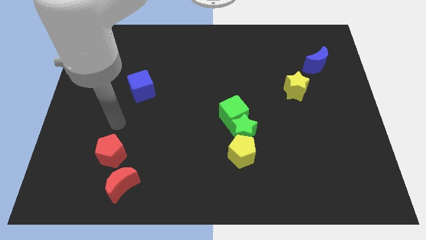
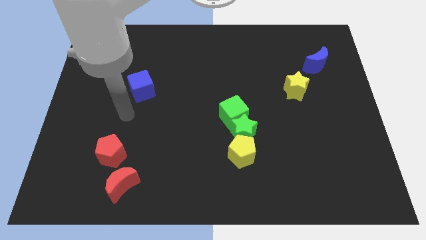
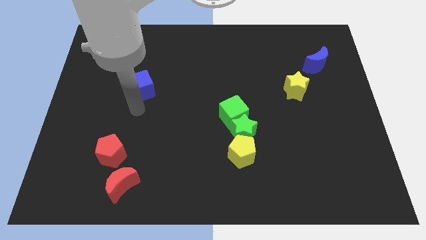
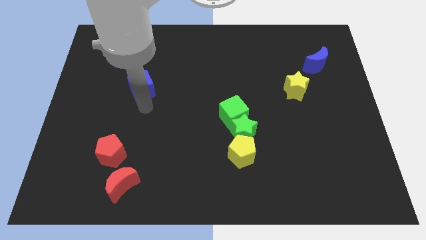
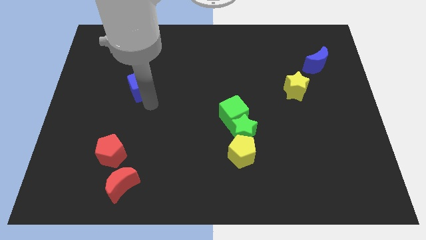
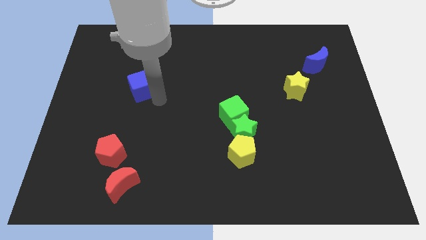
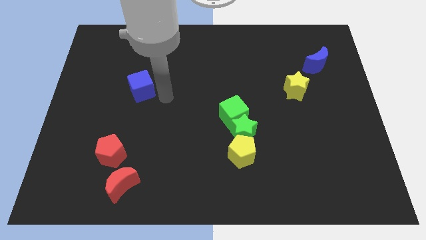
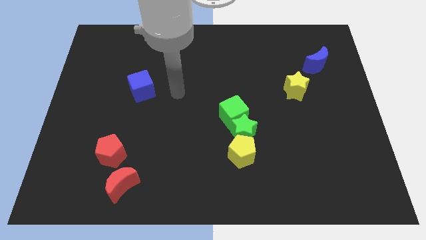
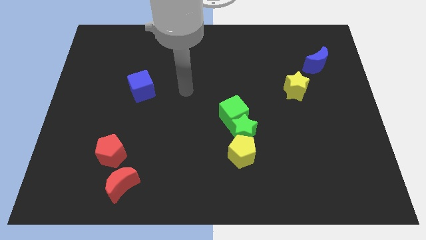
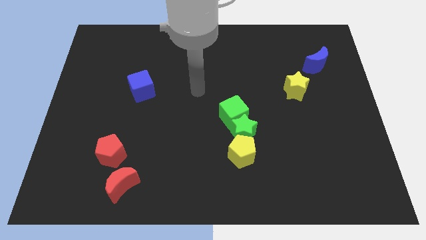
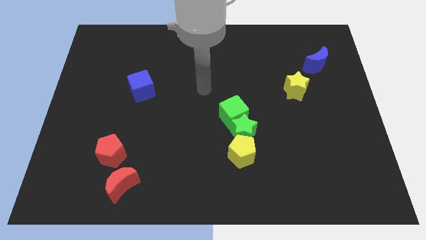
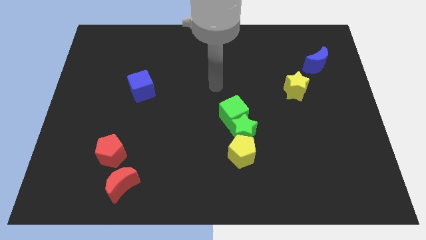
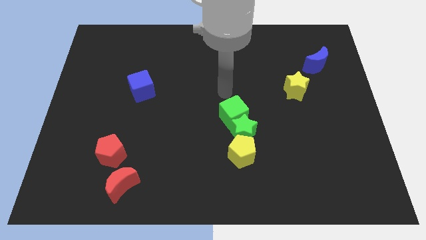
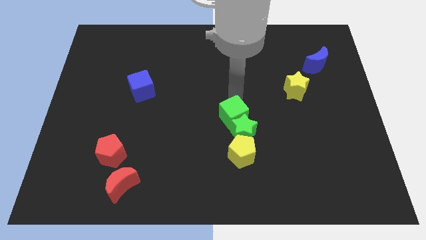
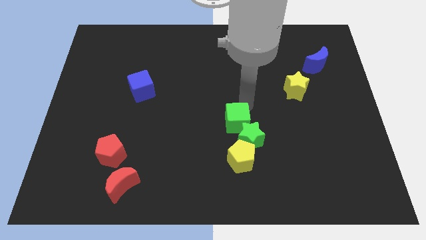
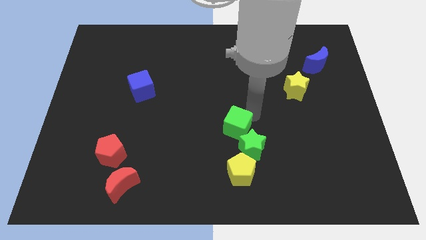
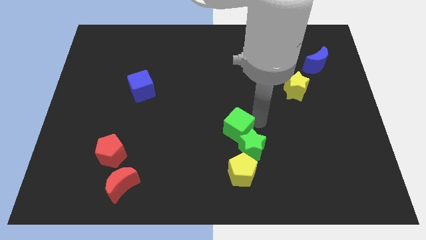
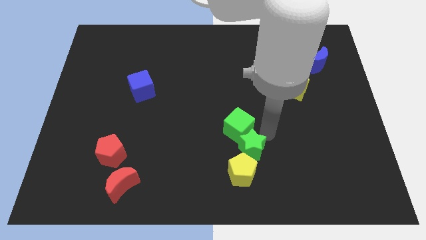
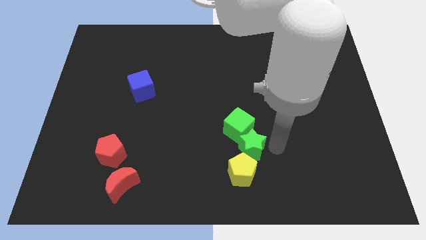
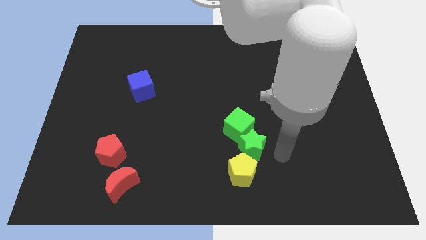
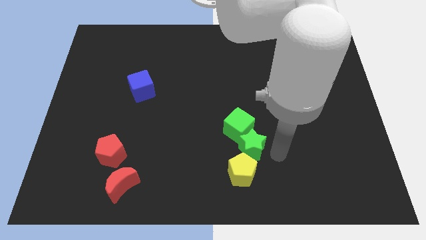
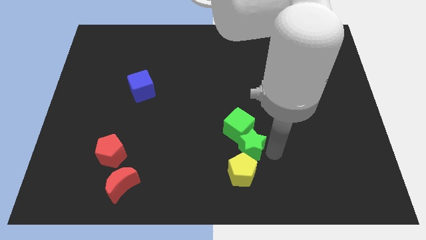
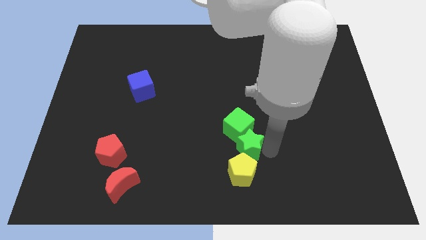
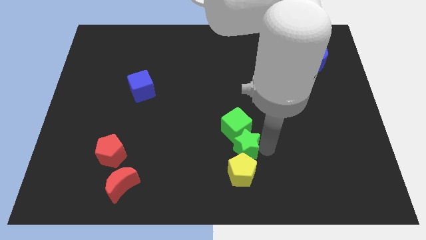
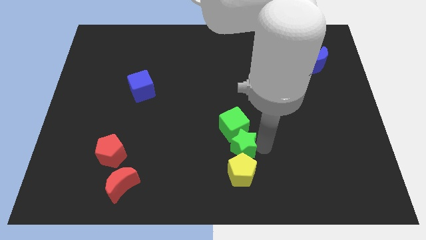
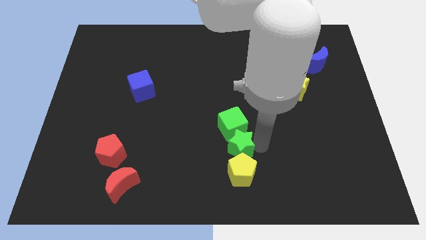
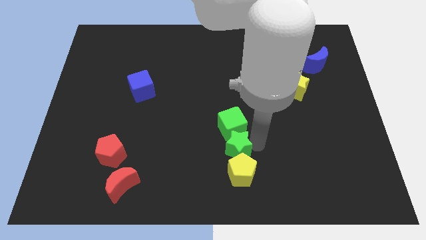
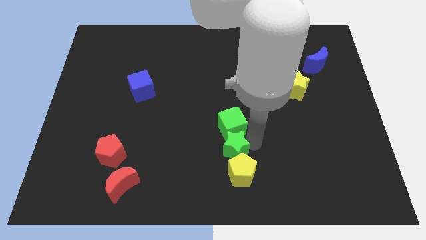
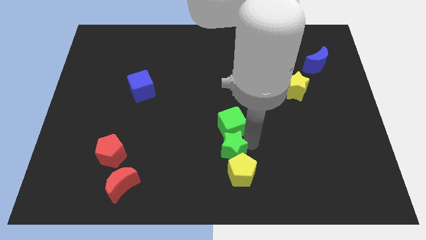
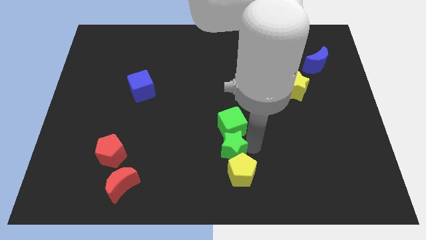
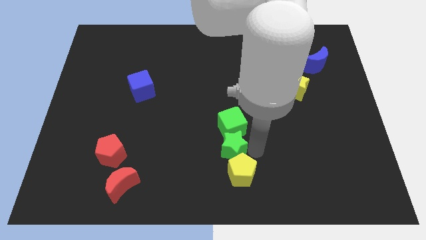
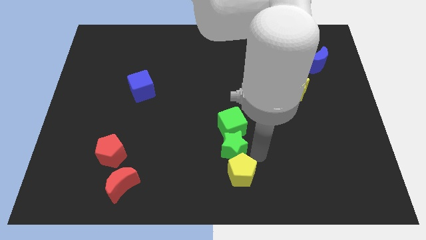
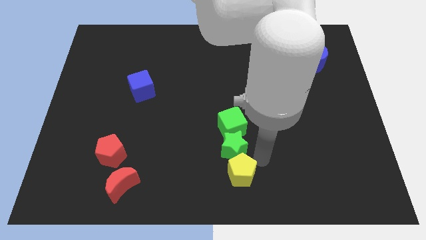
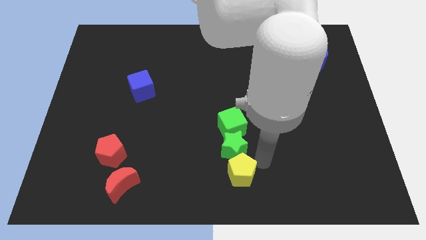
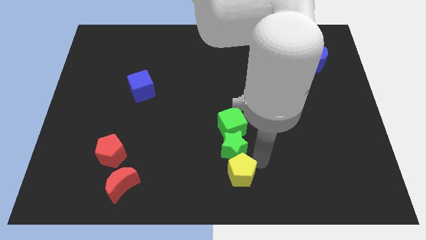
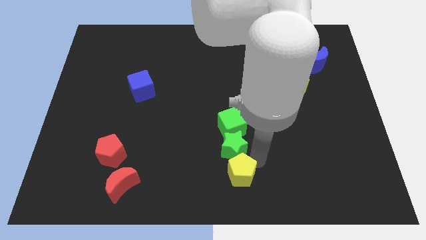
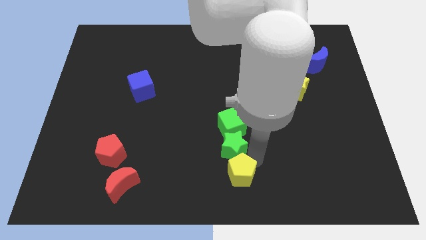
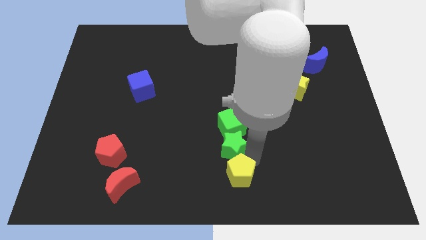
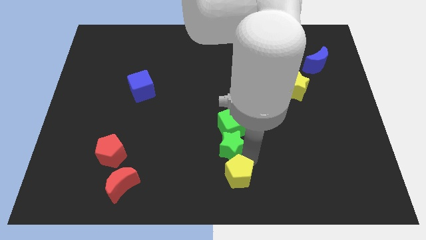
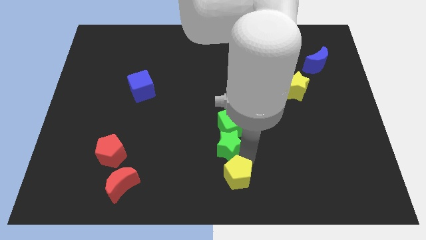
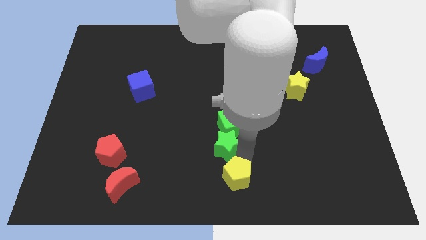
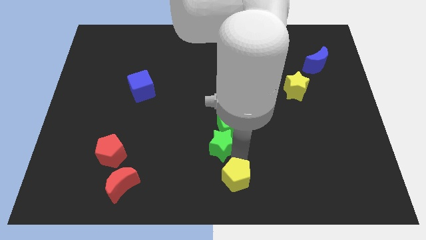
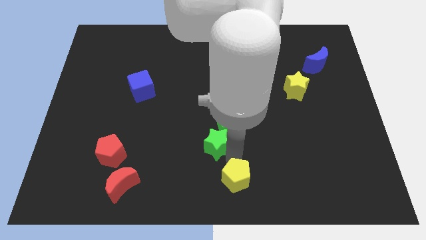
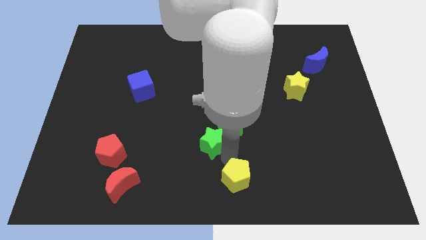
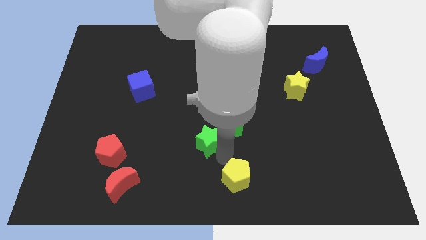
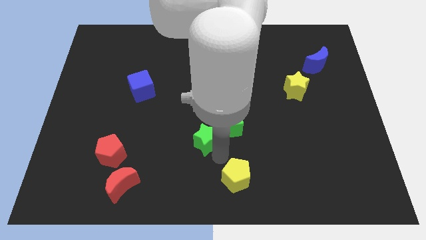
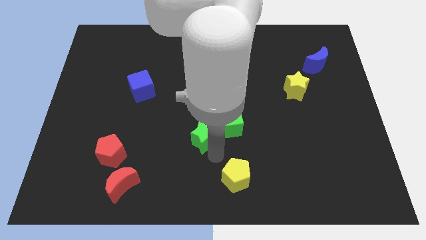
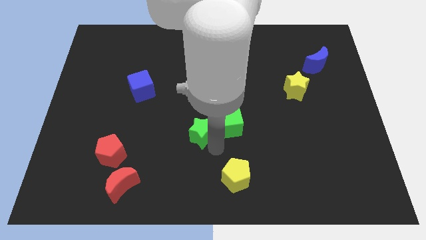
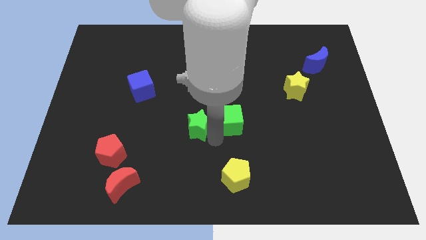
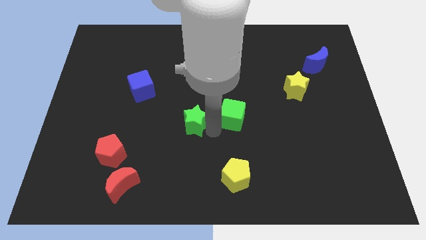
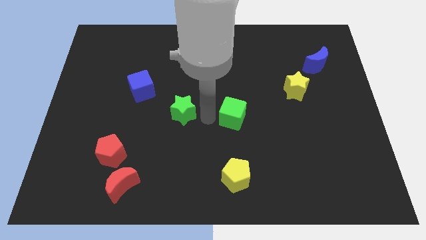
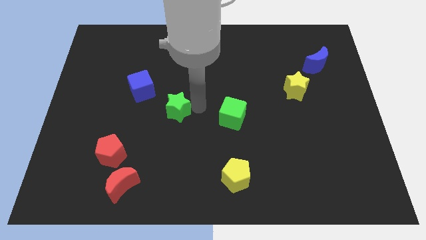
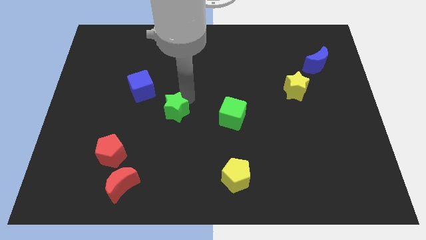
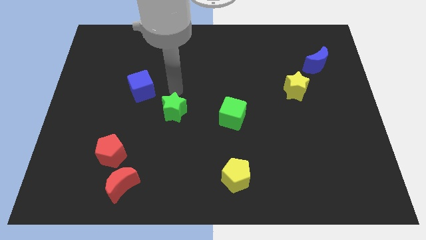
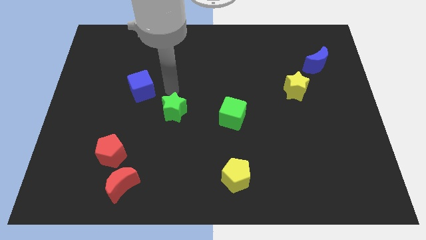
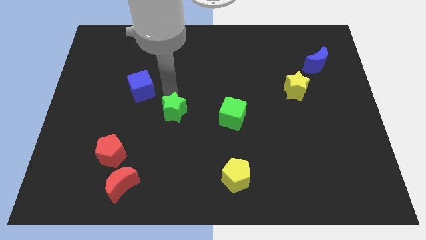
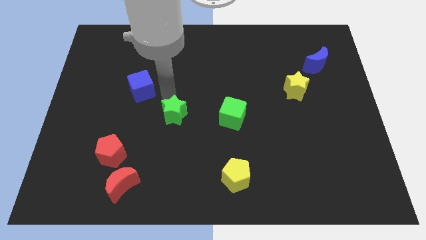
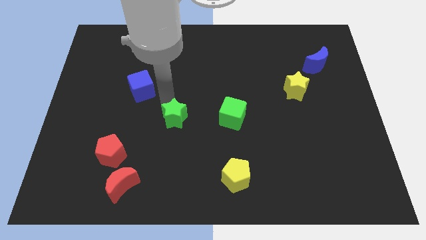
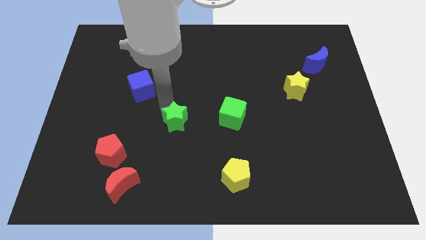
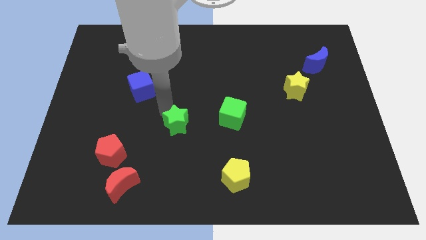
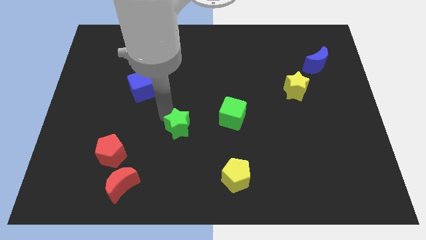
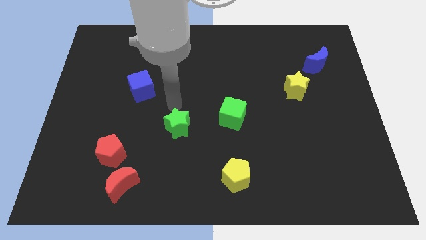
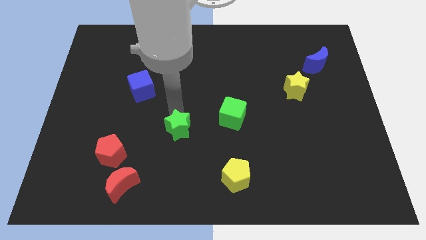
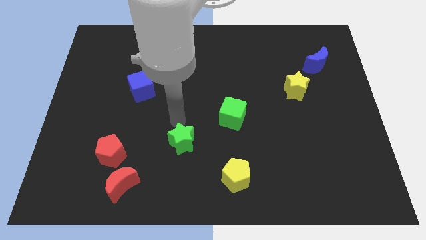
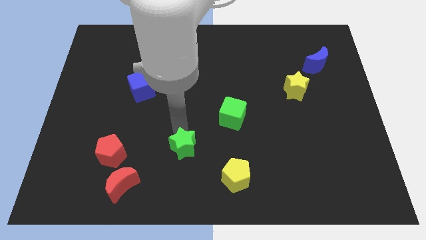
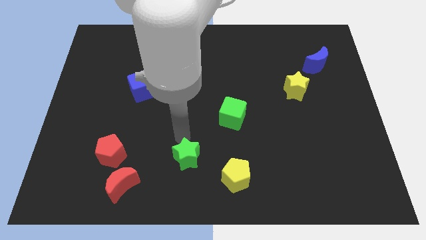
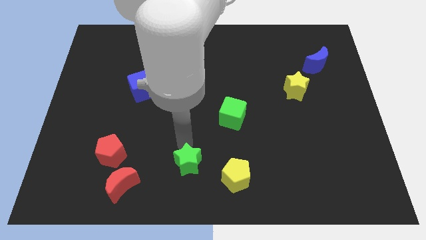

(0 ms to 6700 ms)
push the green star left of the yellow pentagon

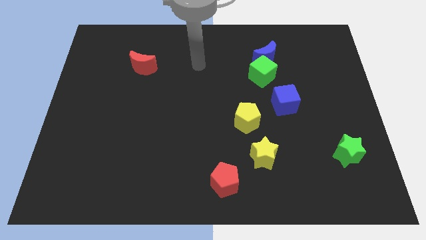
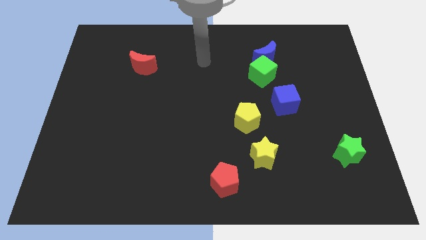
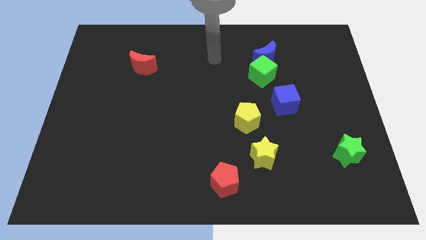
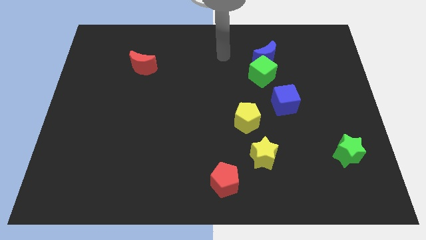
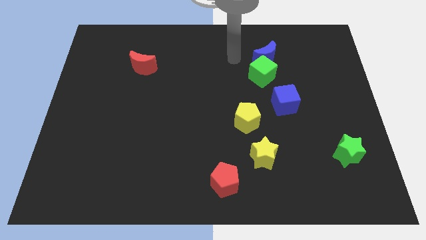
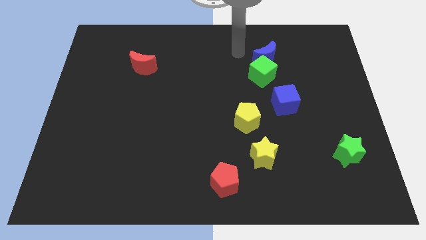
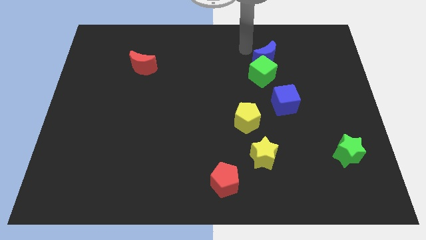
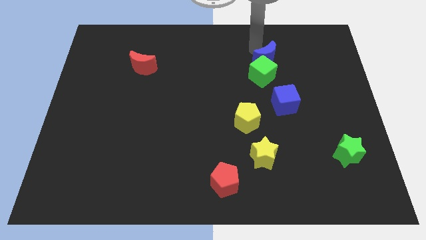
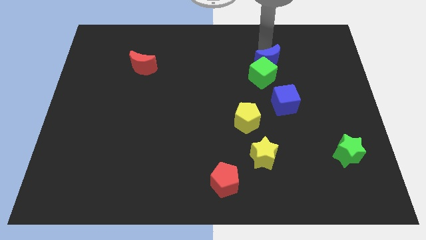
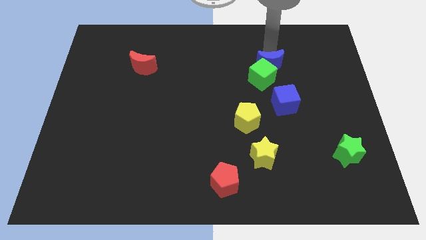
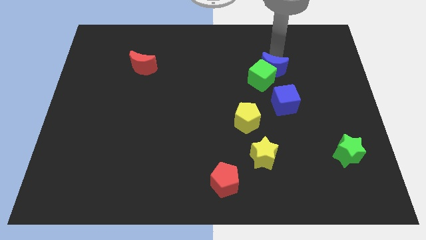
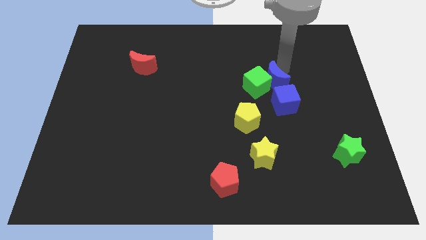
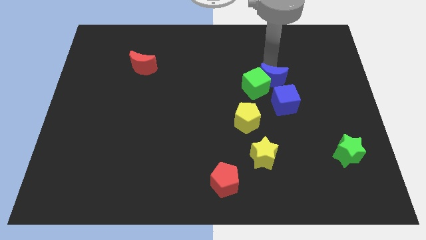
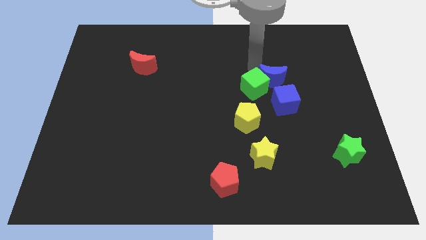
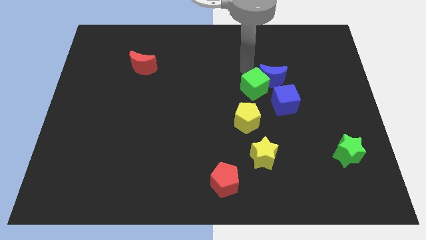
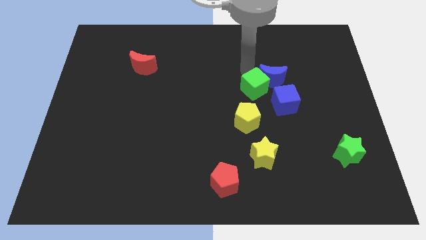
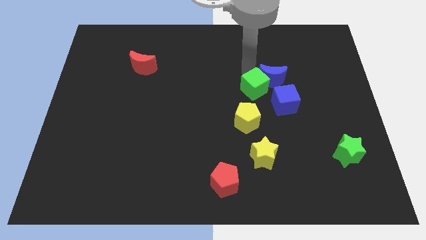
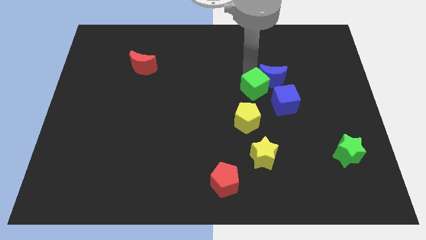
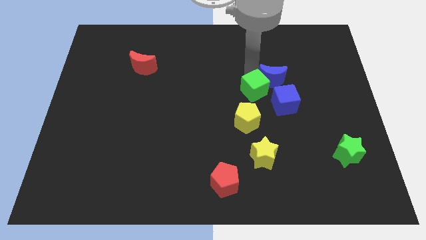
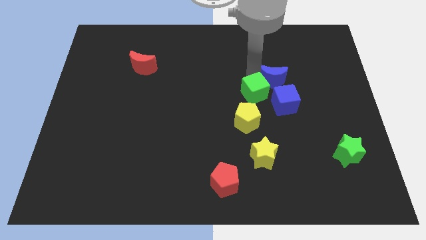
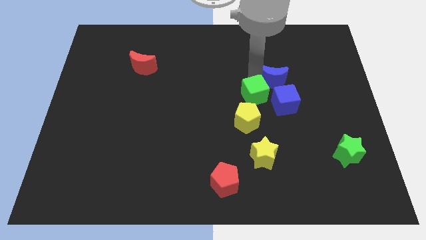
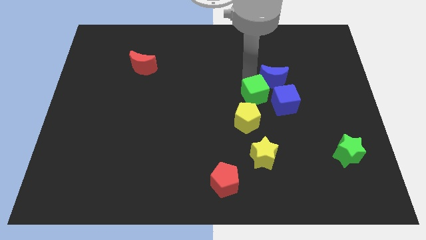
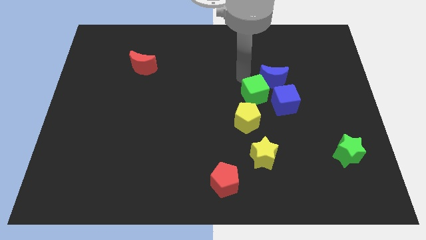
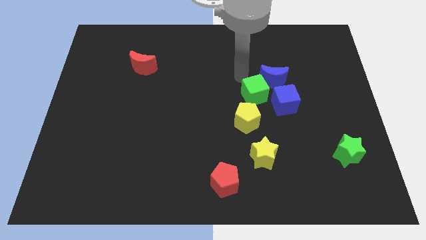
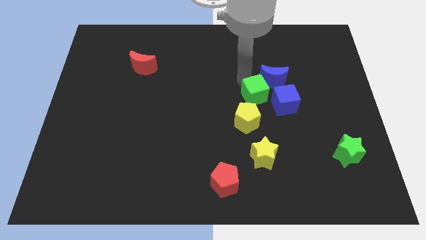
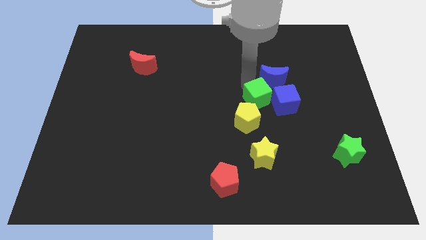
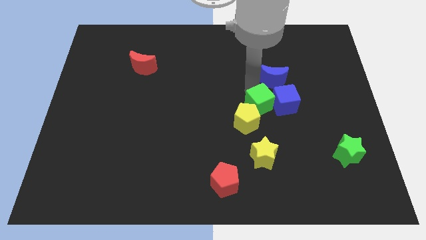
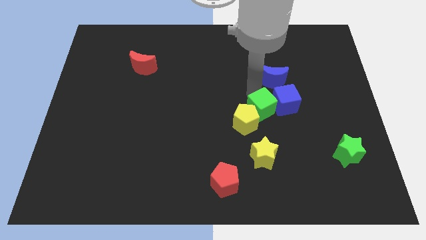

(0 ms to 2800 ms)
move the green cube to the right side of the yellow pentagon
